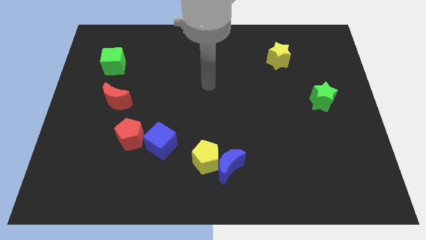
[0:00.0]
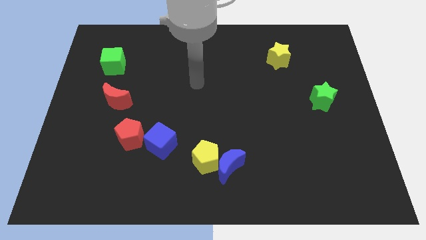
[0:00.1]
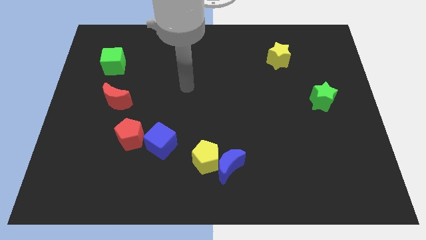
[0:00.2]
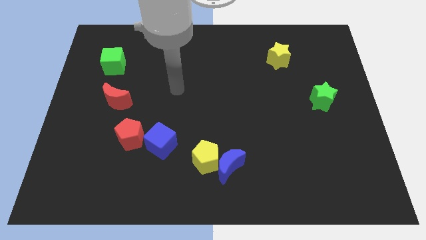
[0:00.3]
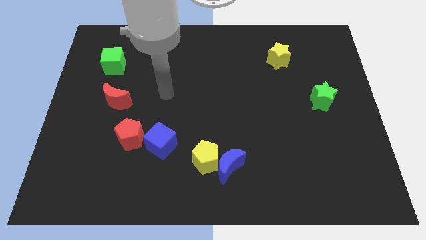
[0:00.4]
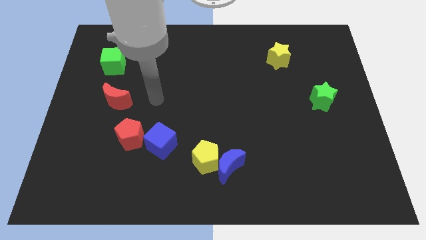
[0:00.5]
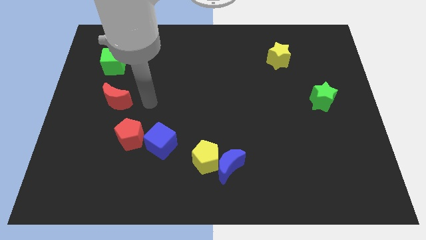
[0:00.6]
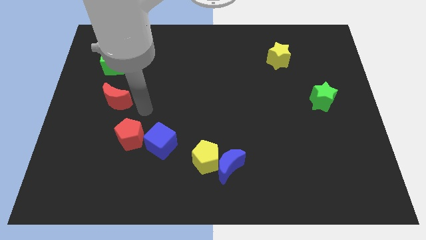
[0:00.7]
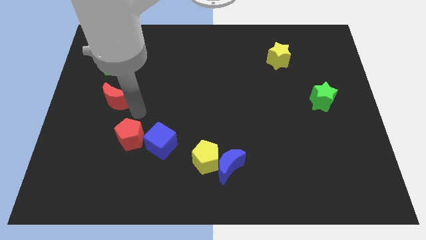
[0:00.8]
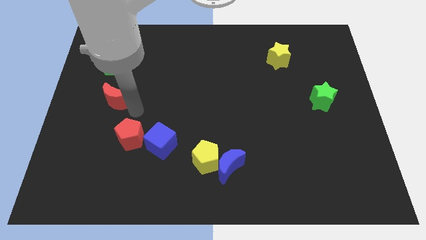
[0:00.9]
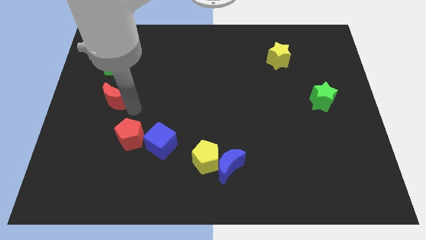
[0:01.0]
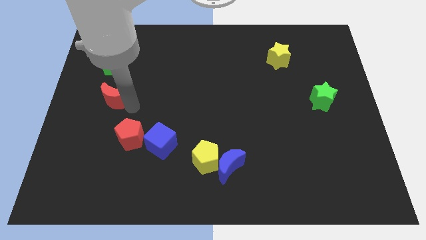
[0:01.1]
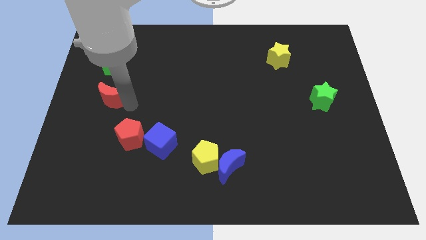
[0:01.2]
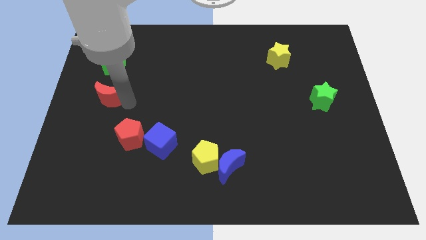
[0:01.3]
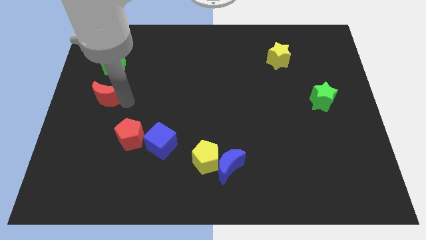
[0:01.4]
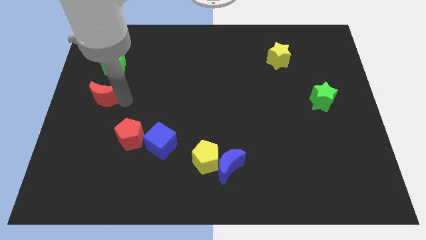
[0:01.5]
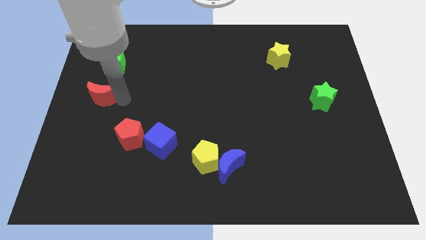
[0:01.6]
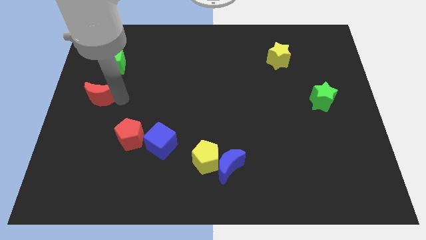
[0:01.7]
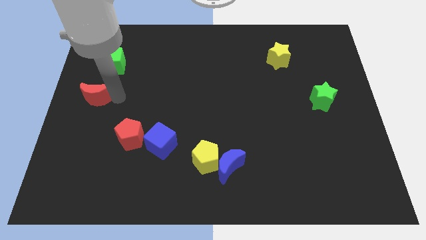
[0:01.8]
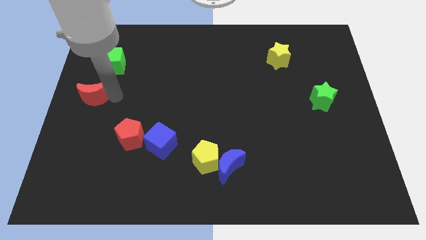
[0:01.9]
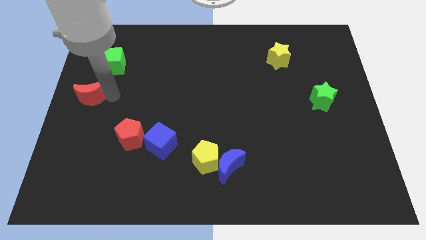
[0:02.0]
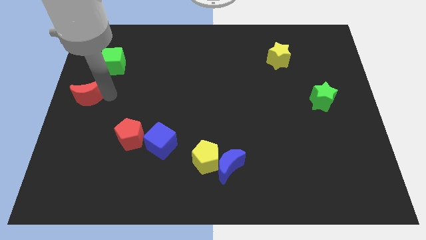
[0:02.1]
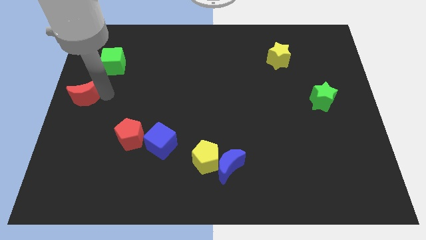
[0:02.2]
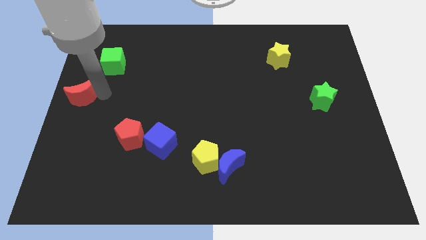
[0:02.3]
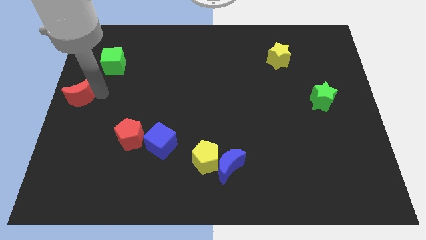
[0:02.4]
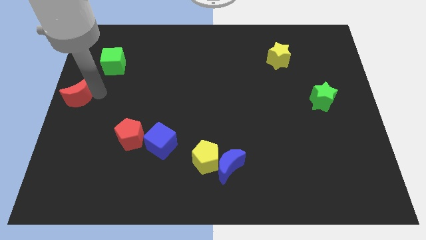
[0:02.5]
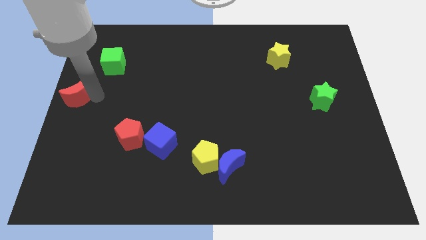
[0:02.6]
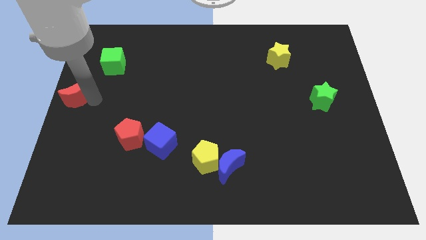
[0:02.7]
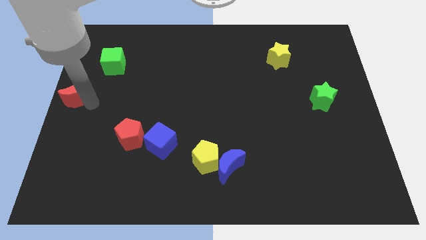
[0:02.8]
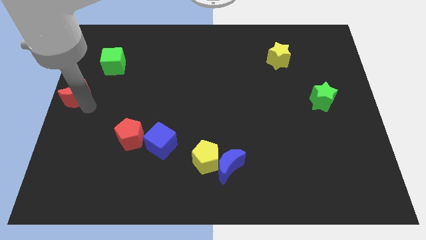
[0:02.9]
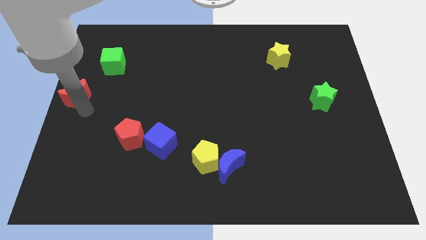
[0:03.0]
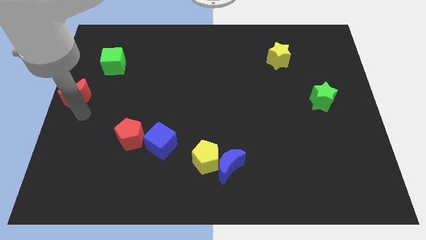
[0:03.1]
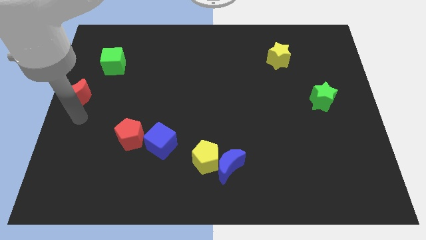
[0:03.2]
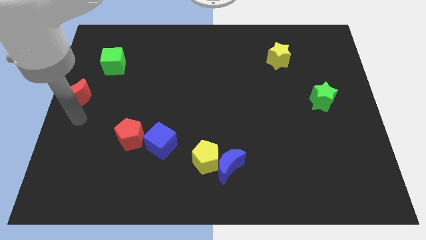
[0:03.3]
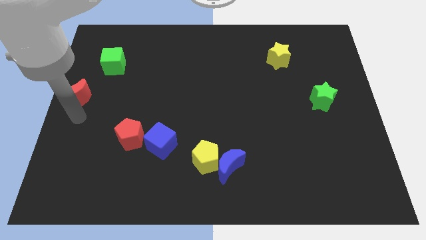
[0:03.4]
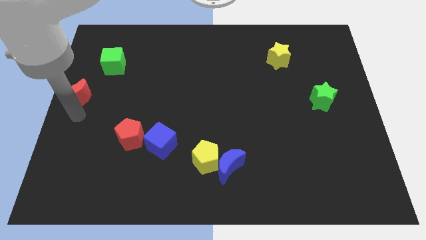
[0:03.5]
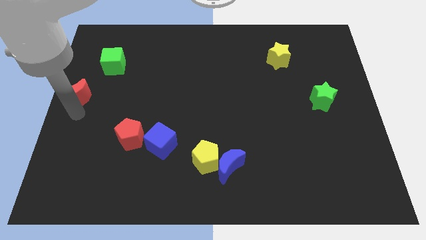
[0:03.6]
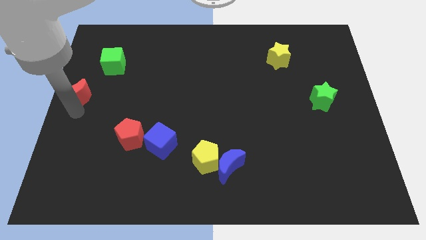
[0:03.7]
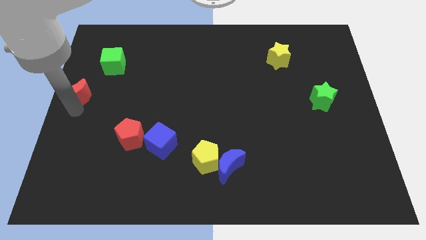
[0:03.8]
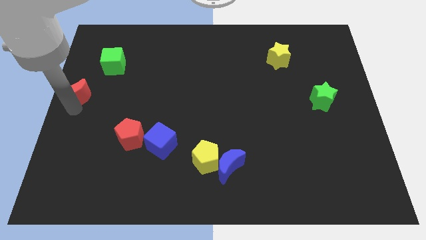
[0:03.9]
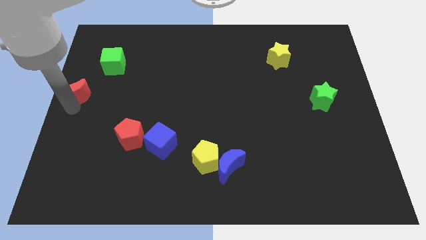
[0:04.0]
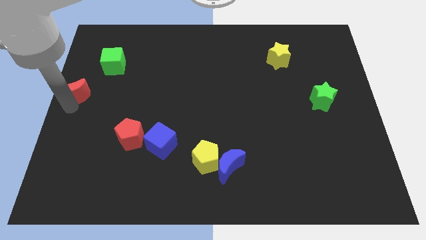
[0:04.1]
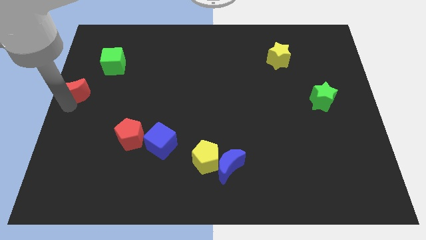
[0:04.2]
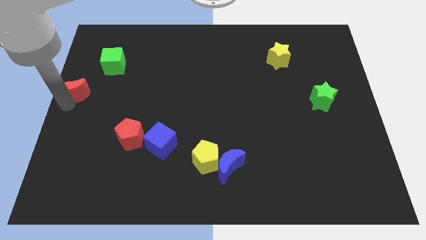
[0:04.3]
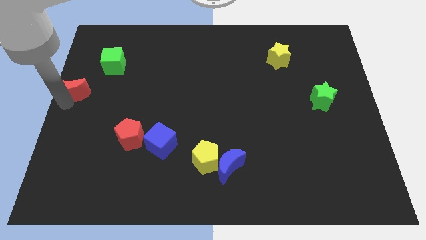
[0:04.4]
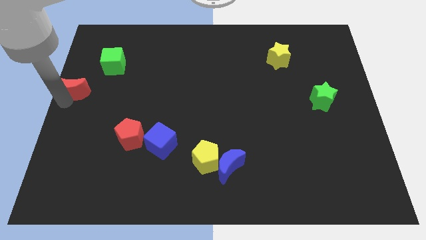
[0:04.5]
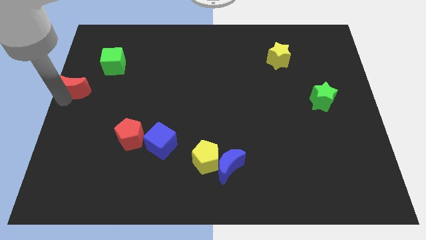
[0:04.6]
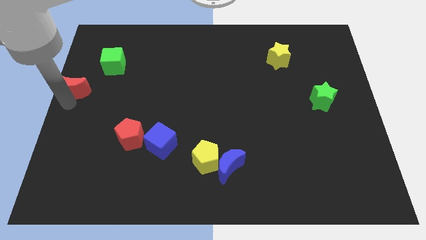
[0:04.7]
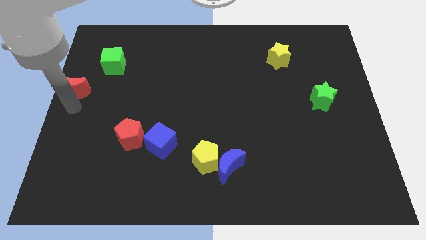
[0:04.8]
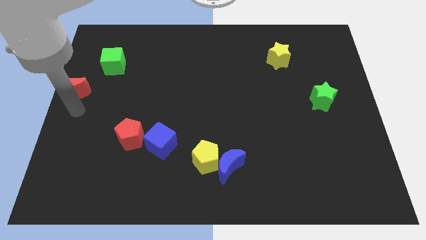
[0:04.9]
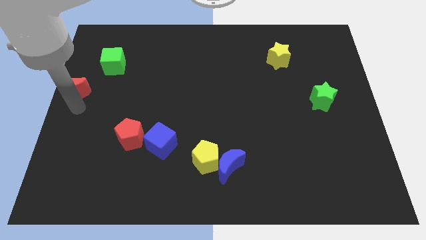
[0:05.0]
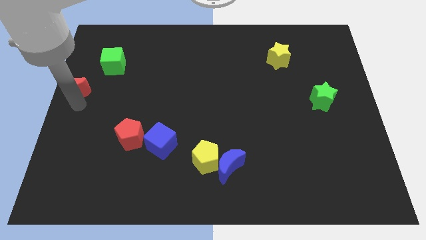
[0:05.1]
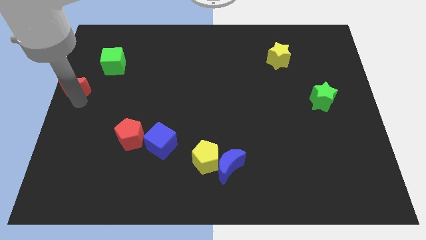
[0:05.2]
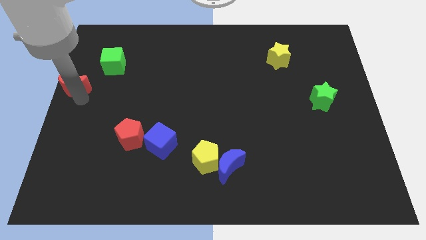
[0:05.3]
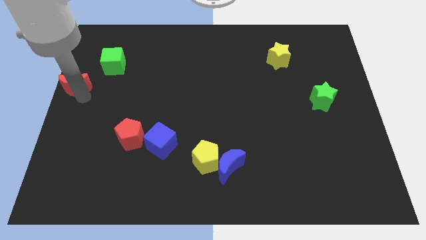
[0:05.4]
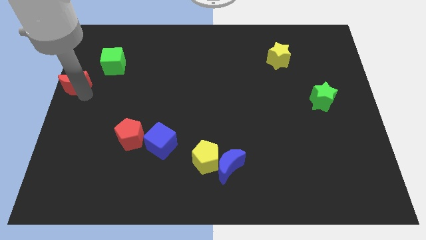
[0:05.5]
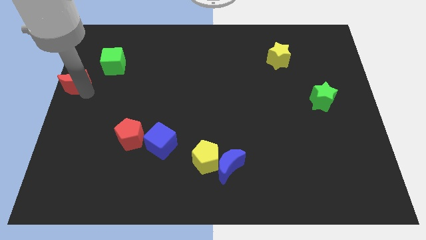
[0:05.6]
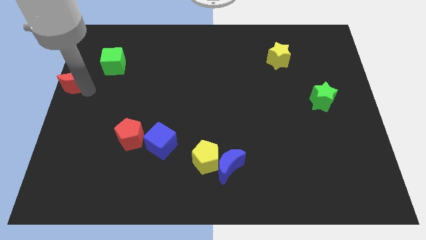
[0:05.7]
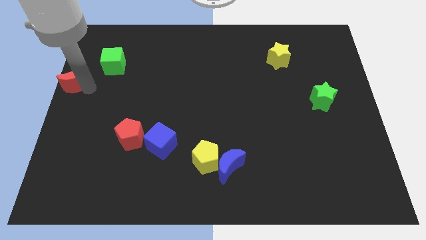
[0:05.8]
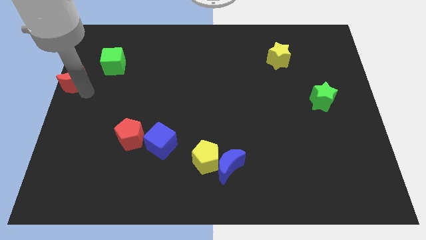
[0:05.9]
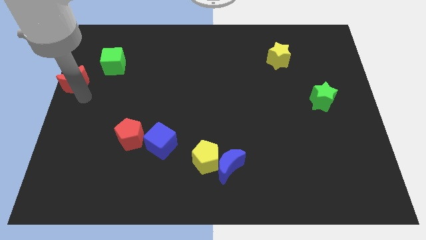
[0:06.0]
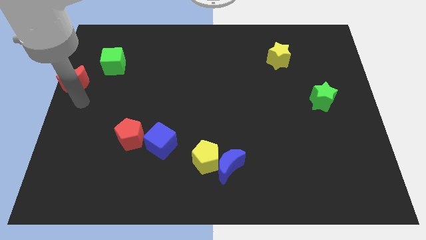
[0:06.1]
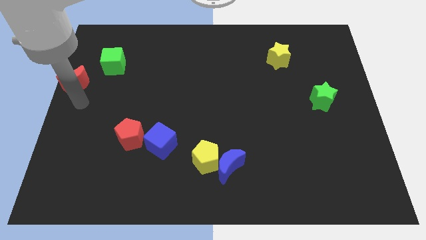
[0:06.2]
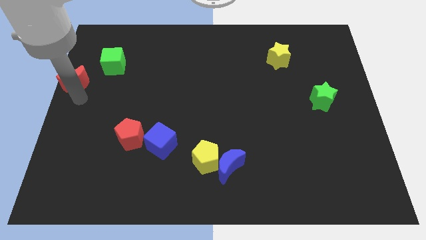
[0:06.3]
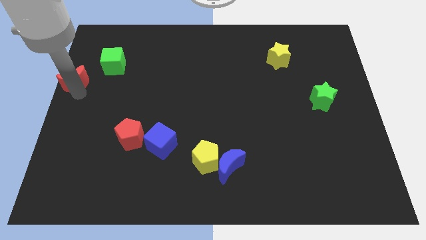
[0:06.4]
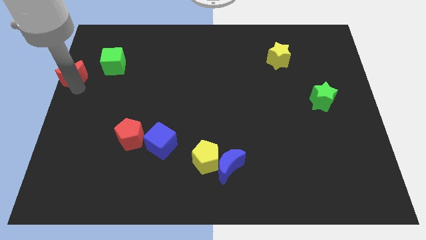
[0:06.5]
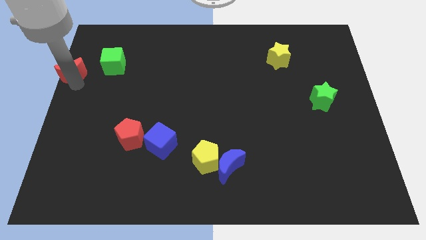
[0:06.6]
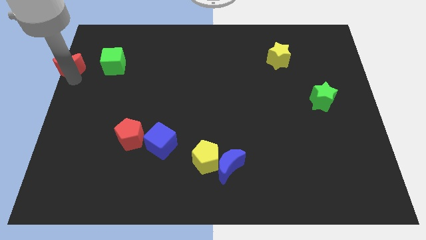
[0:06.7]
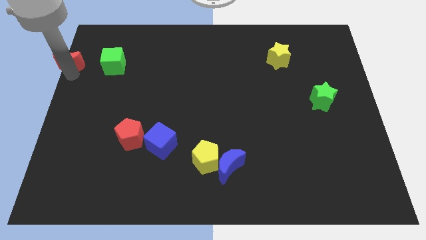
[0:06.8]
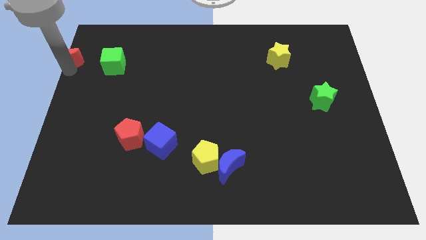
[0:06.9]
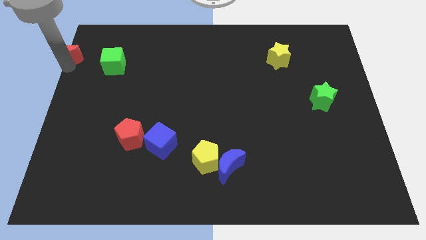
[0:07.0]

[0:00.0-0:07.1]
put the red moon to the top left of the board
